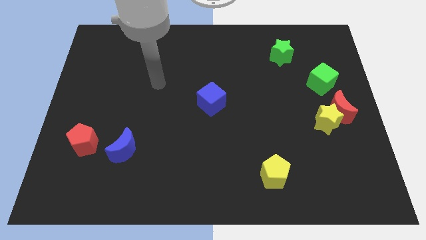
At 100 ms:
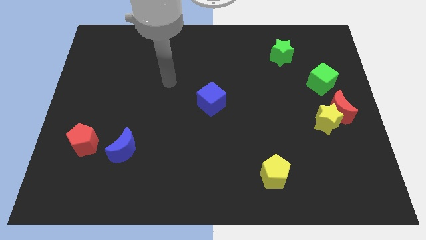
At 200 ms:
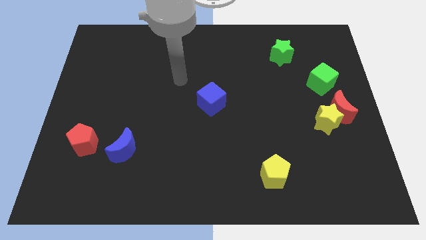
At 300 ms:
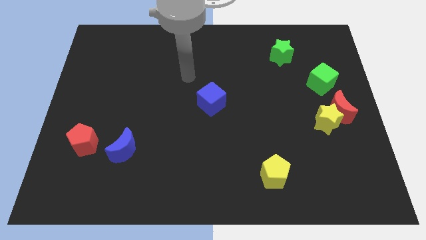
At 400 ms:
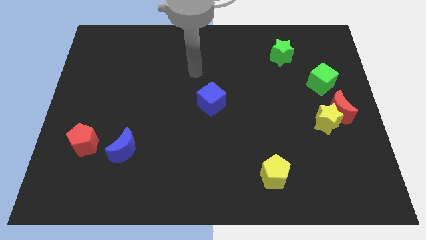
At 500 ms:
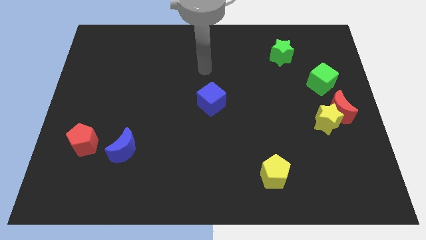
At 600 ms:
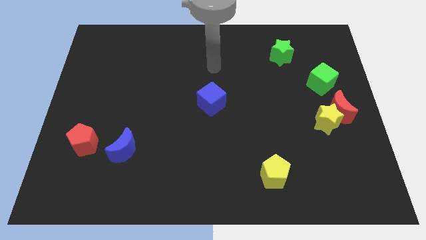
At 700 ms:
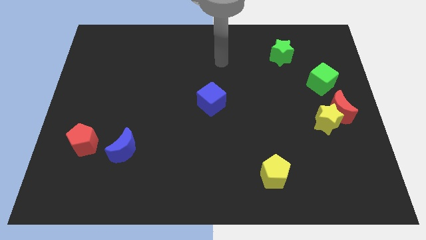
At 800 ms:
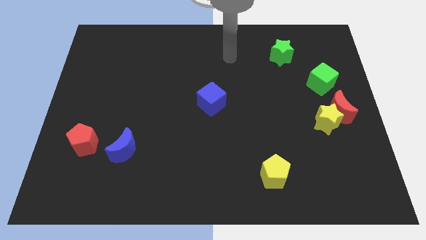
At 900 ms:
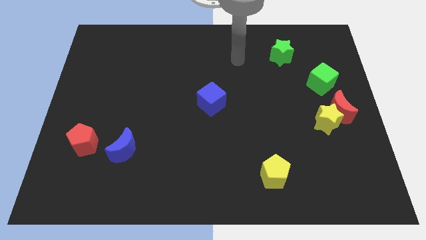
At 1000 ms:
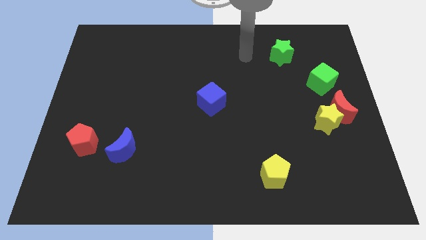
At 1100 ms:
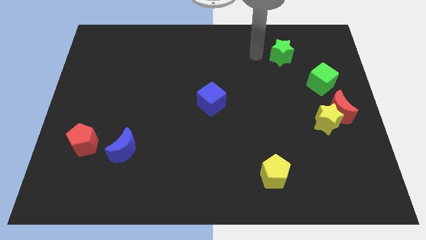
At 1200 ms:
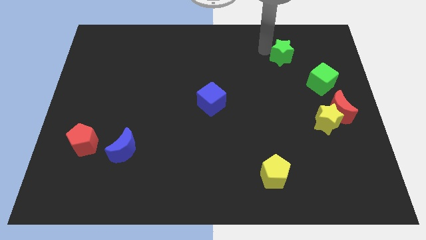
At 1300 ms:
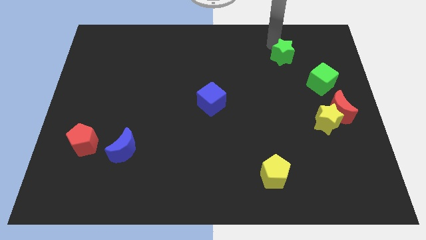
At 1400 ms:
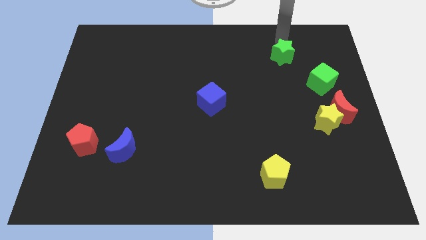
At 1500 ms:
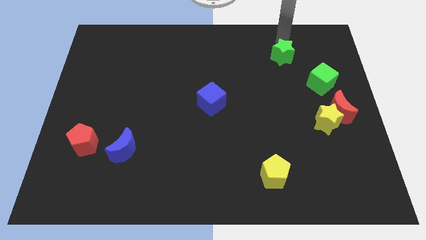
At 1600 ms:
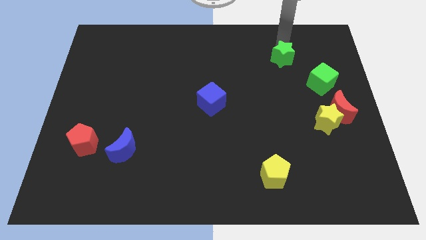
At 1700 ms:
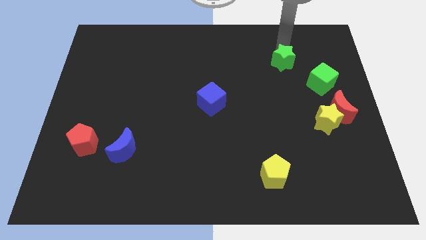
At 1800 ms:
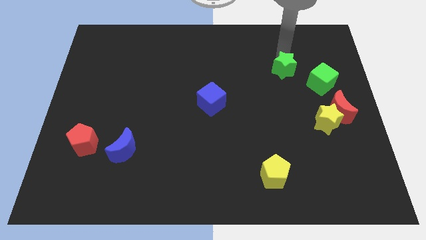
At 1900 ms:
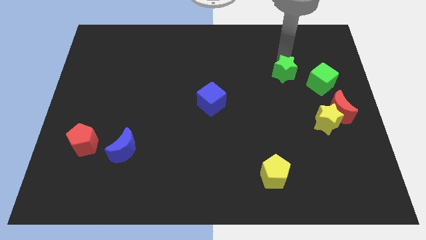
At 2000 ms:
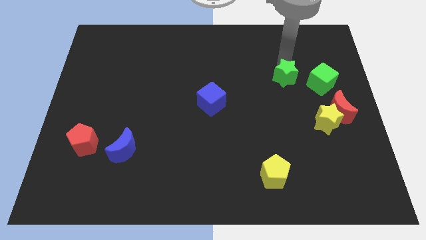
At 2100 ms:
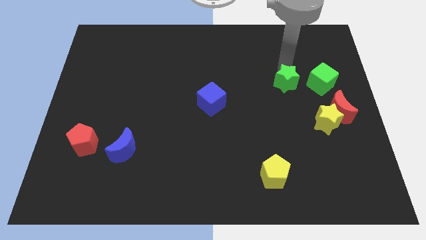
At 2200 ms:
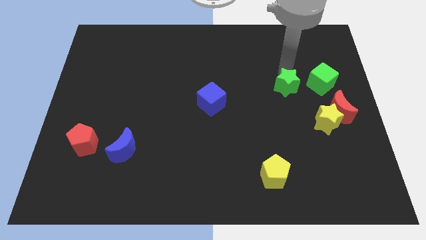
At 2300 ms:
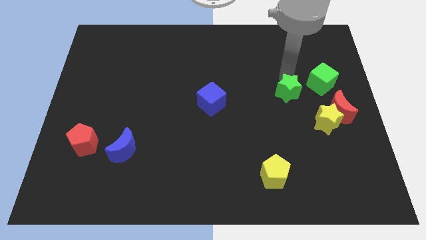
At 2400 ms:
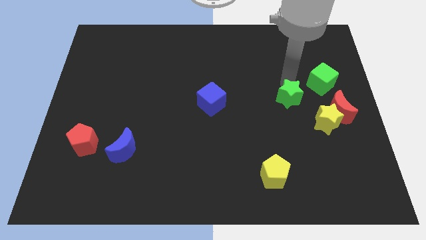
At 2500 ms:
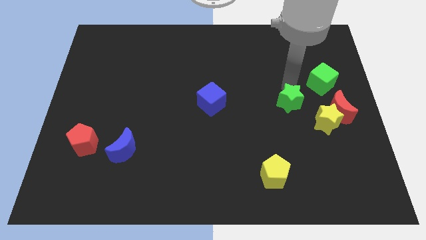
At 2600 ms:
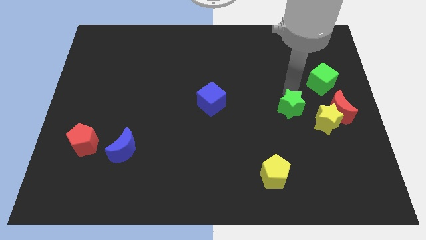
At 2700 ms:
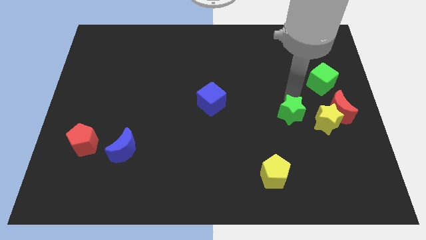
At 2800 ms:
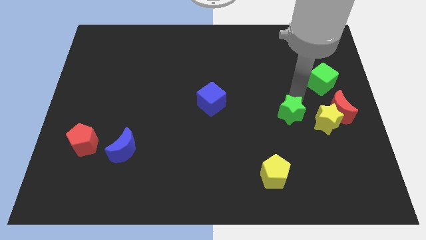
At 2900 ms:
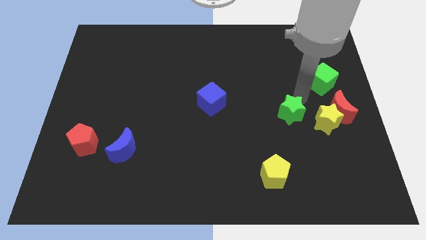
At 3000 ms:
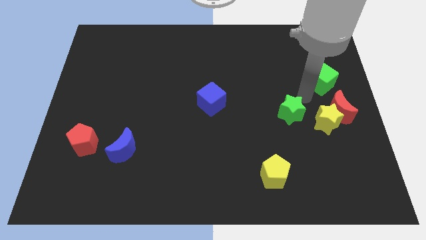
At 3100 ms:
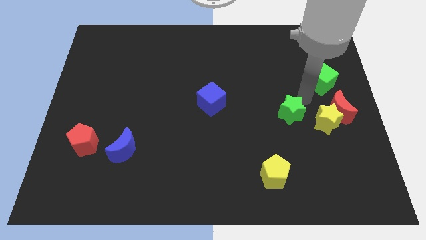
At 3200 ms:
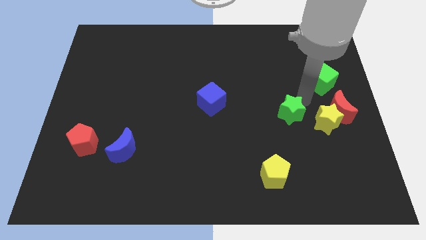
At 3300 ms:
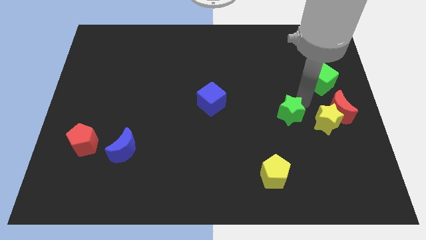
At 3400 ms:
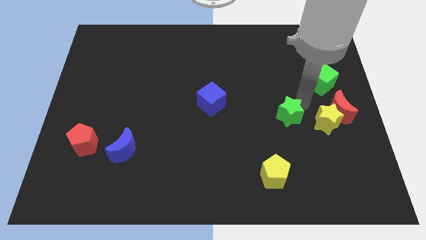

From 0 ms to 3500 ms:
slide the green star downwards

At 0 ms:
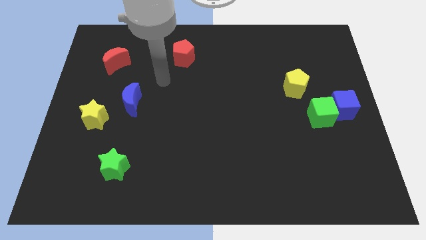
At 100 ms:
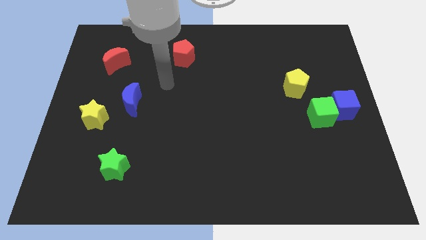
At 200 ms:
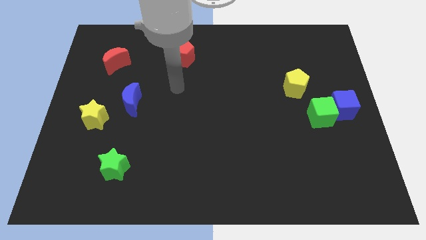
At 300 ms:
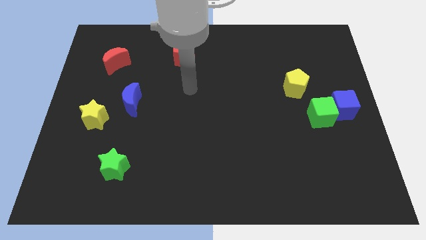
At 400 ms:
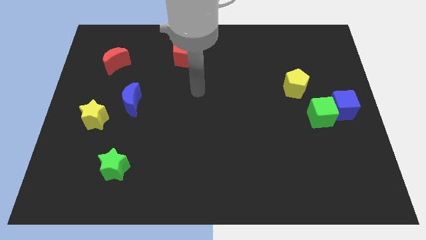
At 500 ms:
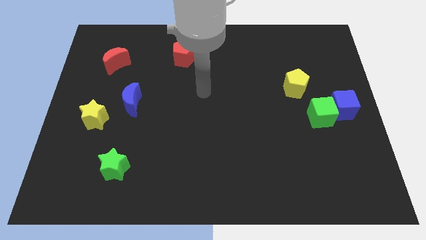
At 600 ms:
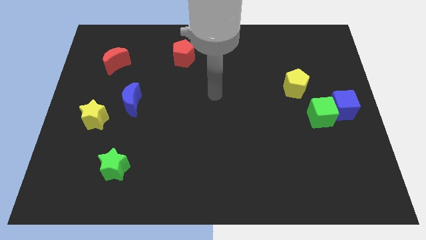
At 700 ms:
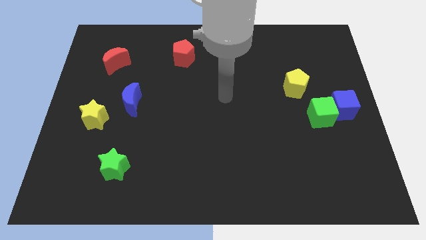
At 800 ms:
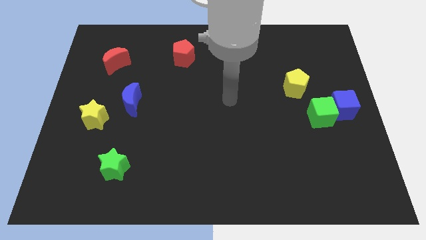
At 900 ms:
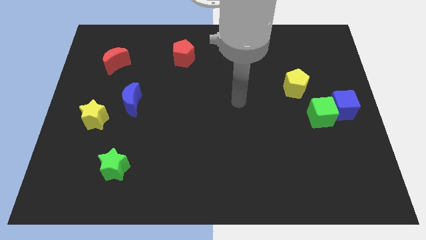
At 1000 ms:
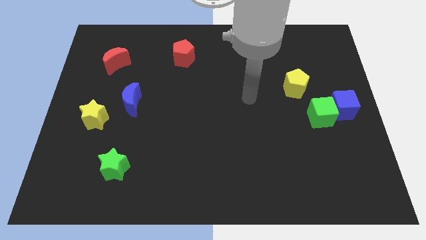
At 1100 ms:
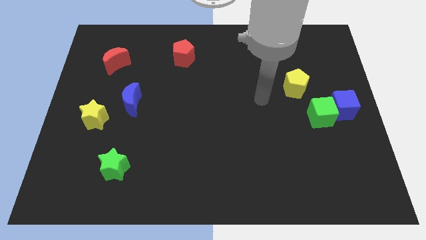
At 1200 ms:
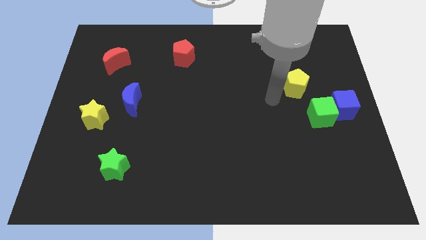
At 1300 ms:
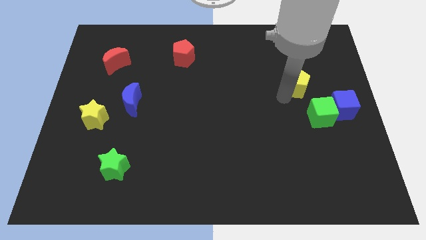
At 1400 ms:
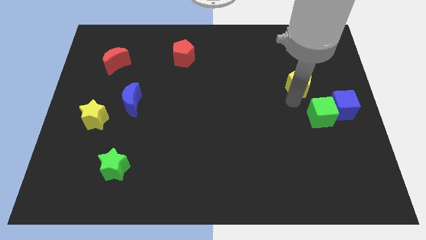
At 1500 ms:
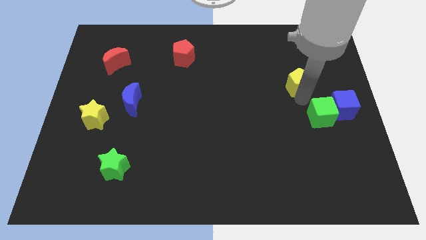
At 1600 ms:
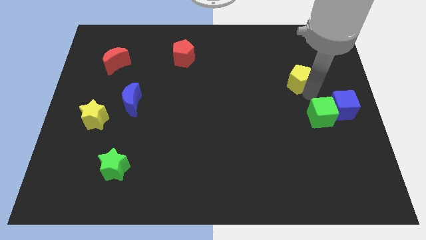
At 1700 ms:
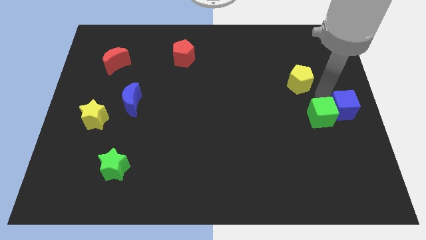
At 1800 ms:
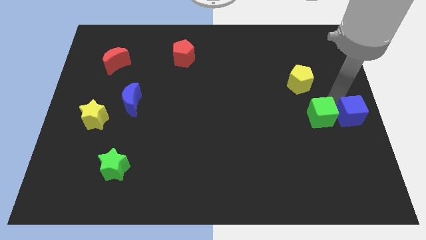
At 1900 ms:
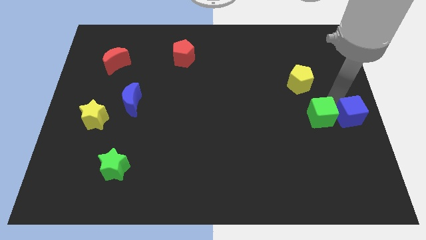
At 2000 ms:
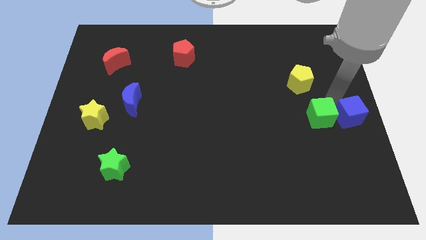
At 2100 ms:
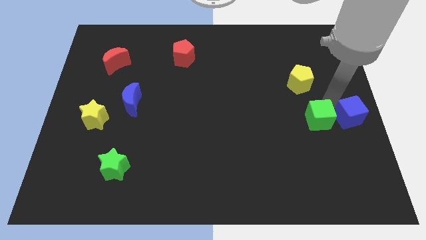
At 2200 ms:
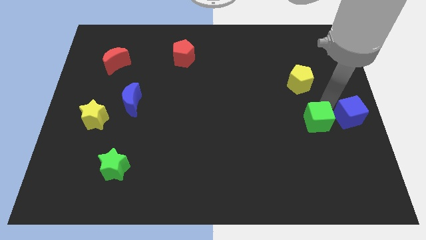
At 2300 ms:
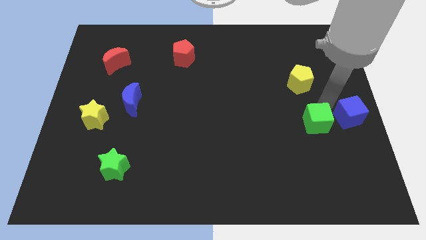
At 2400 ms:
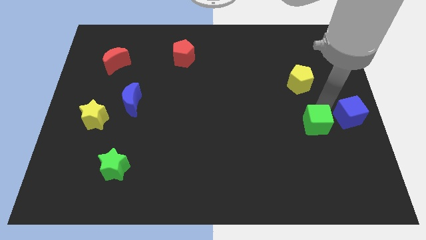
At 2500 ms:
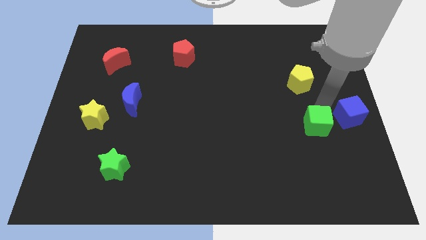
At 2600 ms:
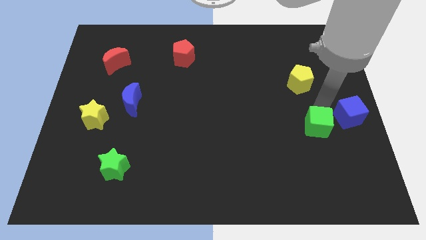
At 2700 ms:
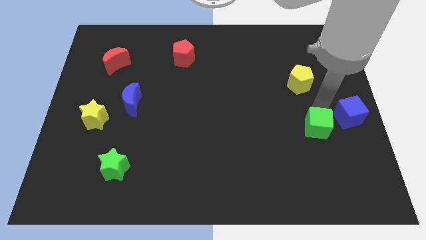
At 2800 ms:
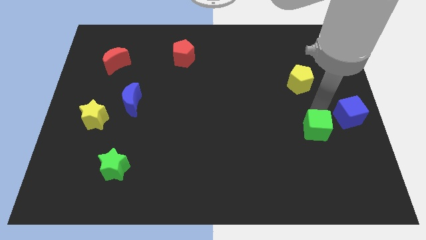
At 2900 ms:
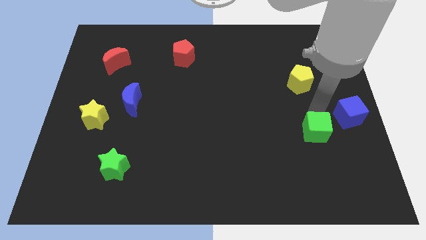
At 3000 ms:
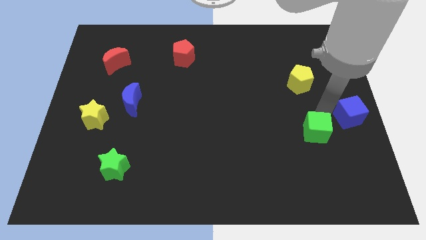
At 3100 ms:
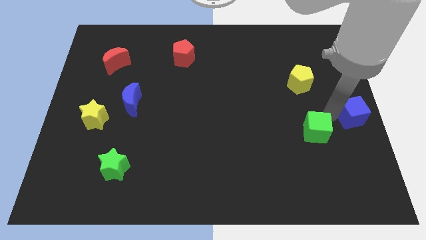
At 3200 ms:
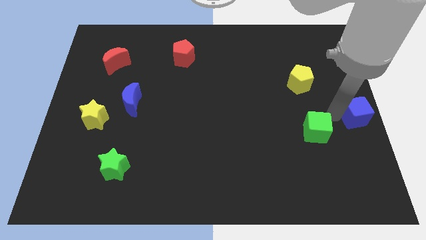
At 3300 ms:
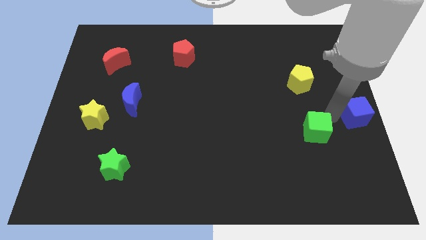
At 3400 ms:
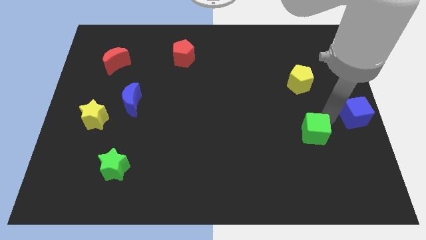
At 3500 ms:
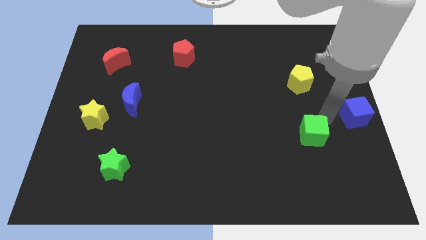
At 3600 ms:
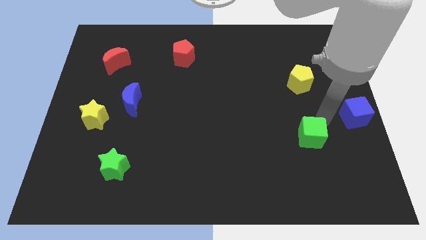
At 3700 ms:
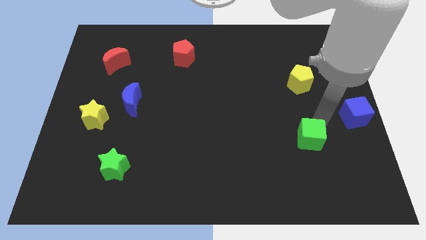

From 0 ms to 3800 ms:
move the green cube a little bit down and then to the left

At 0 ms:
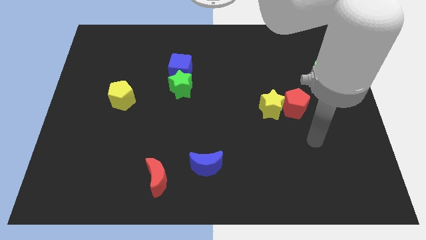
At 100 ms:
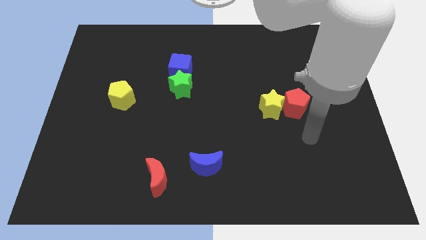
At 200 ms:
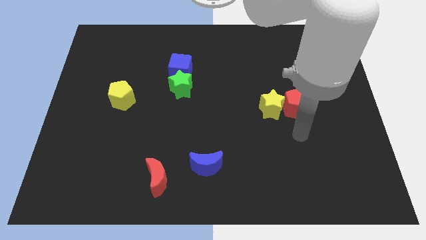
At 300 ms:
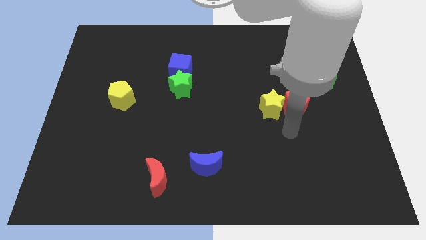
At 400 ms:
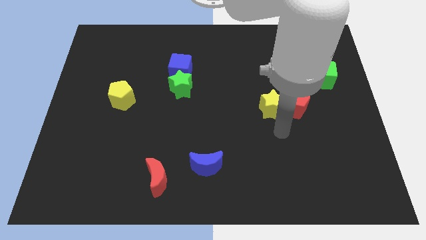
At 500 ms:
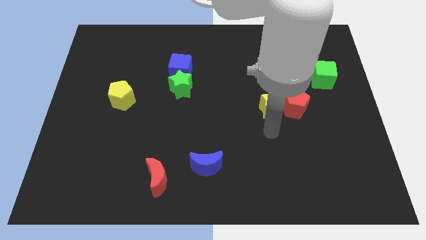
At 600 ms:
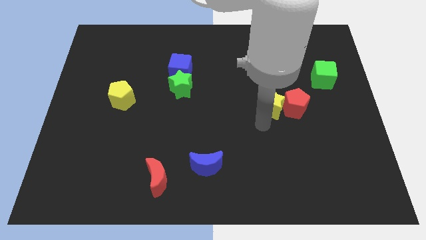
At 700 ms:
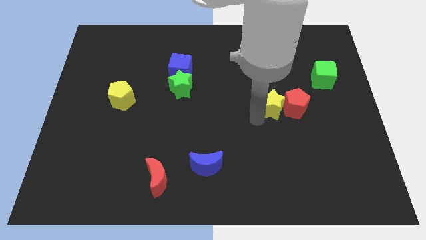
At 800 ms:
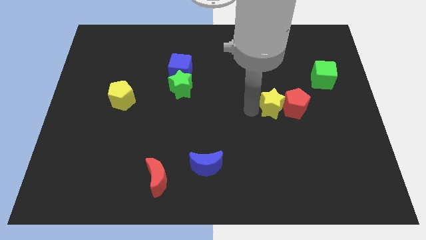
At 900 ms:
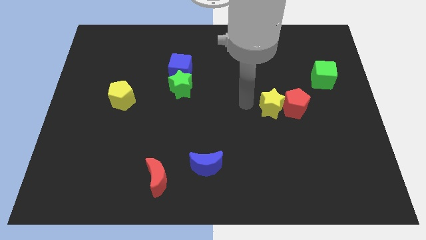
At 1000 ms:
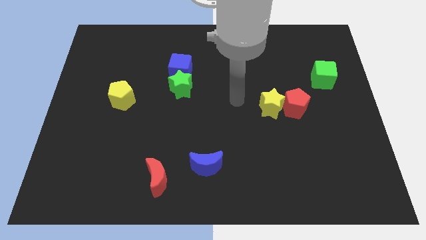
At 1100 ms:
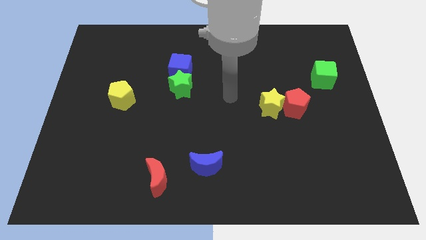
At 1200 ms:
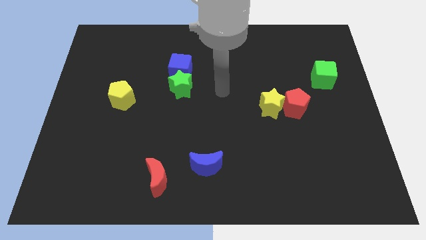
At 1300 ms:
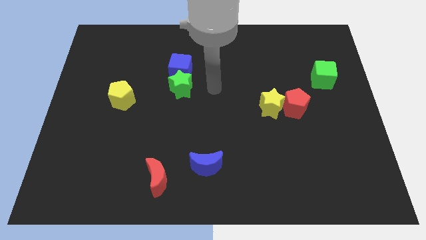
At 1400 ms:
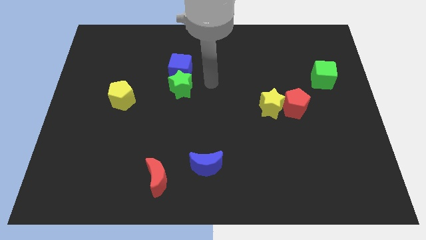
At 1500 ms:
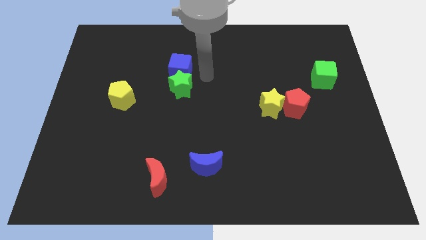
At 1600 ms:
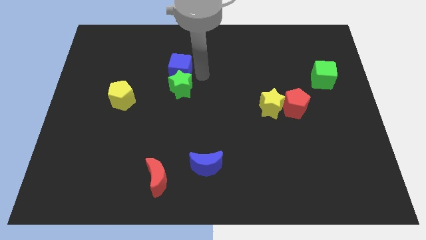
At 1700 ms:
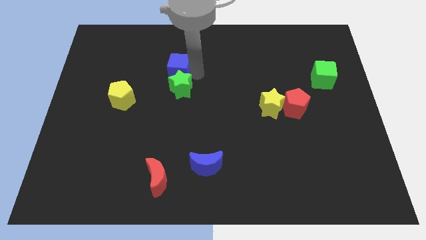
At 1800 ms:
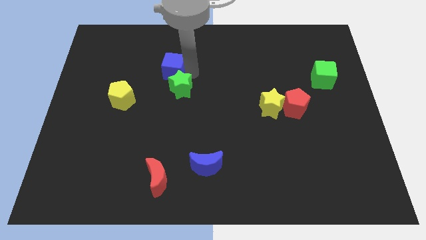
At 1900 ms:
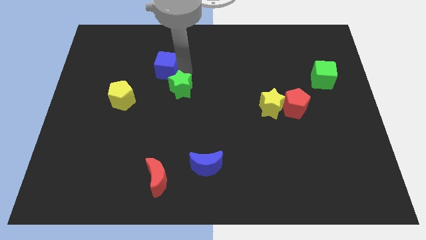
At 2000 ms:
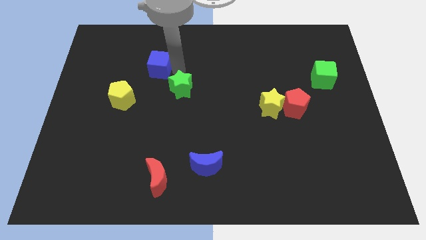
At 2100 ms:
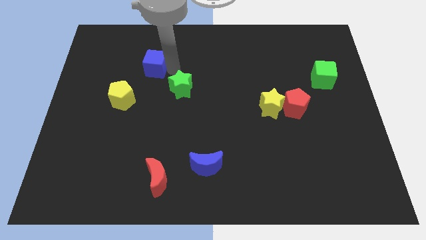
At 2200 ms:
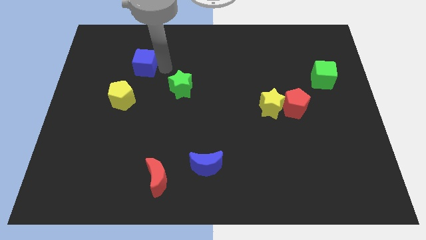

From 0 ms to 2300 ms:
push the blue cube slightly to the left
